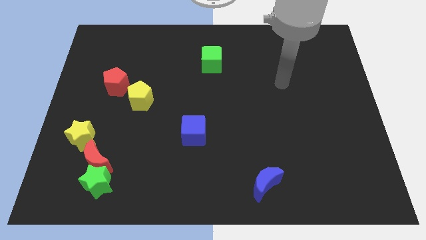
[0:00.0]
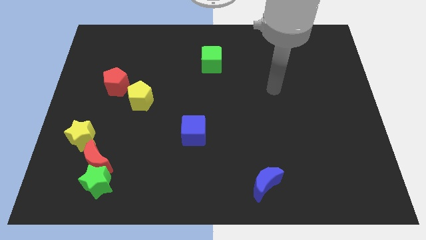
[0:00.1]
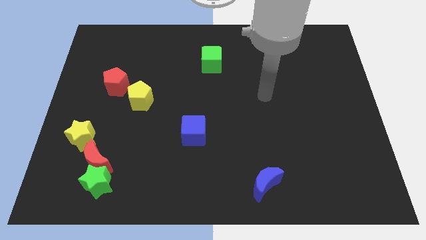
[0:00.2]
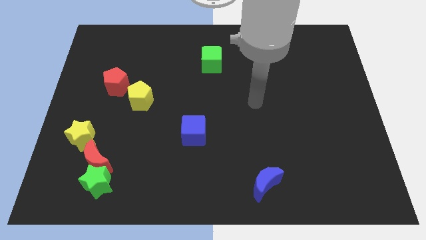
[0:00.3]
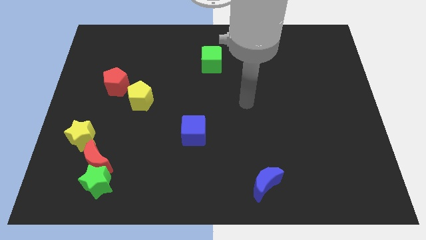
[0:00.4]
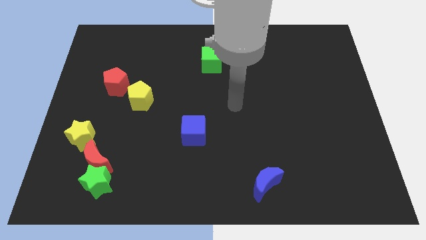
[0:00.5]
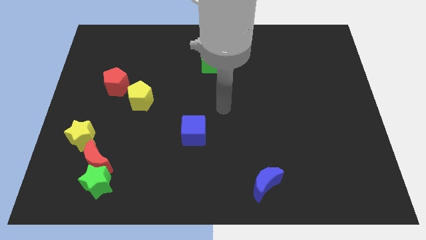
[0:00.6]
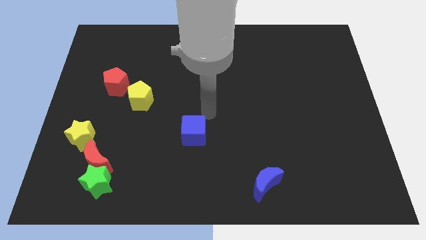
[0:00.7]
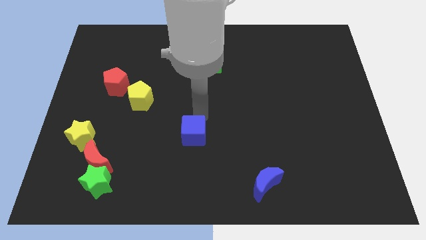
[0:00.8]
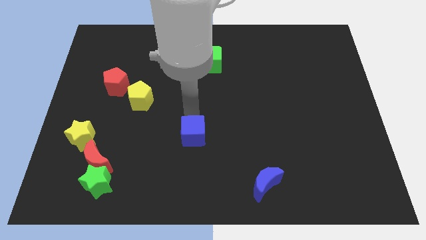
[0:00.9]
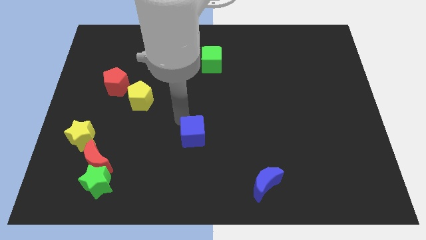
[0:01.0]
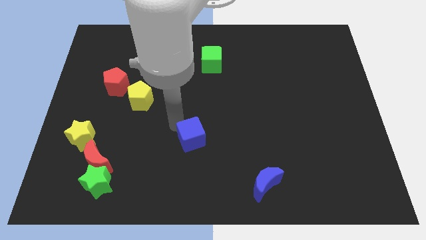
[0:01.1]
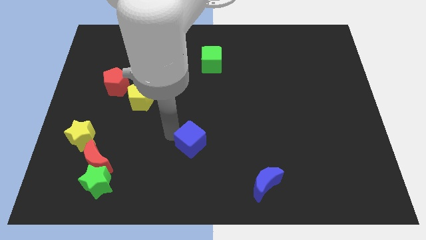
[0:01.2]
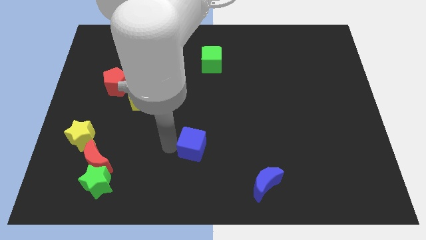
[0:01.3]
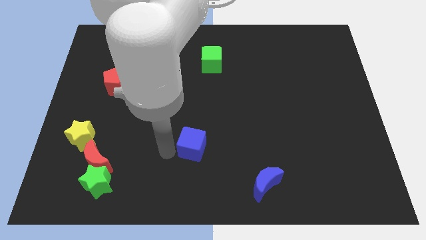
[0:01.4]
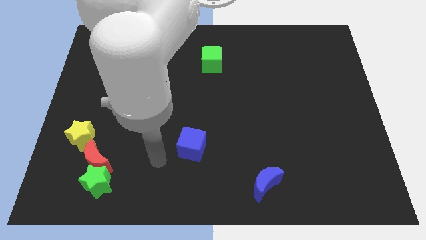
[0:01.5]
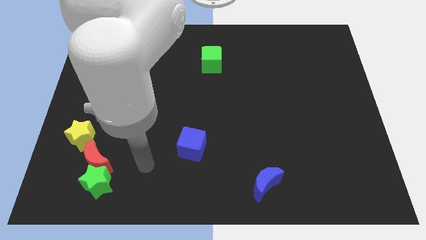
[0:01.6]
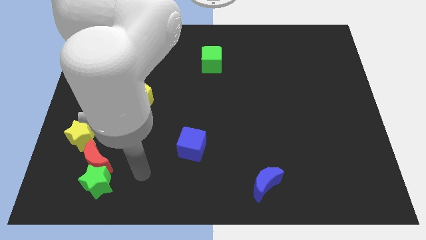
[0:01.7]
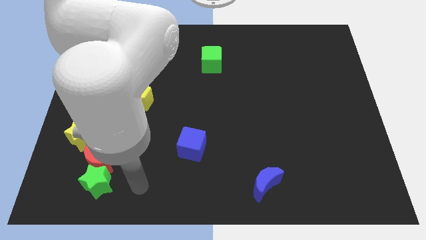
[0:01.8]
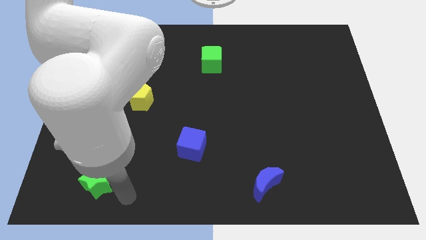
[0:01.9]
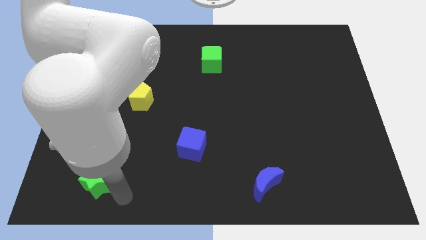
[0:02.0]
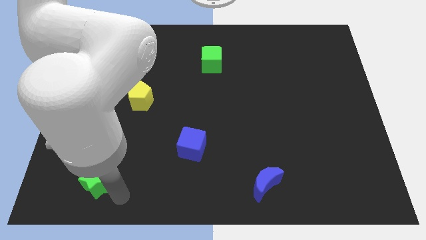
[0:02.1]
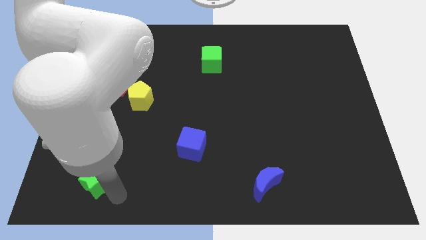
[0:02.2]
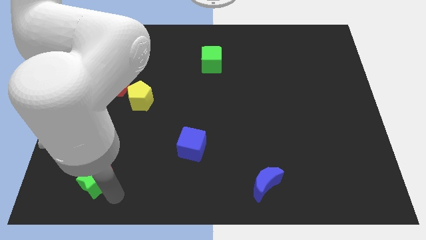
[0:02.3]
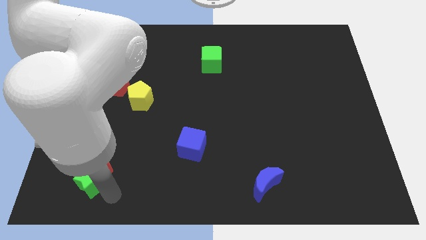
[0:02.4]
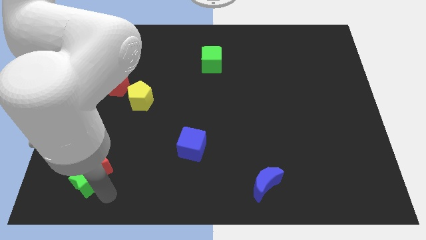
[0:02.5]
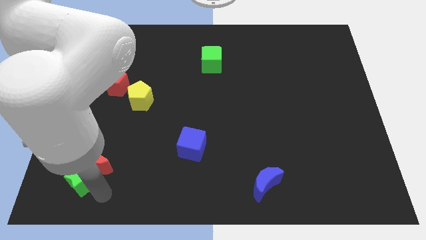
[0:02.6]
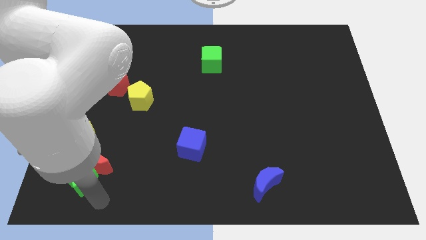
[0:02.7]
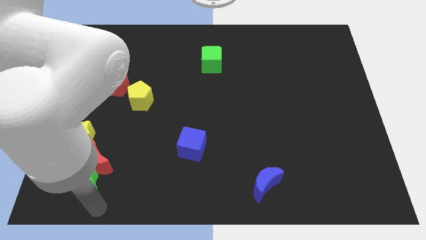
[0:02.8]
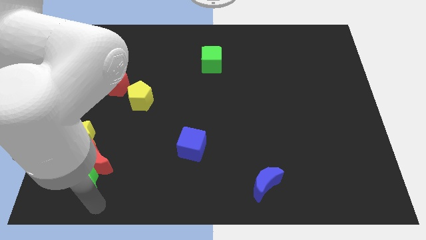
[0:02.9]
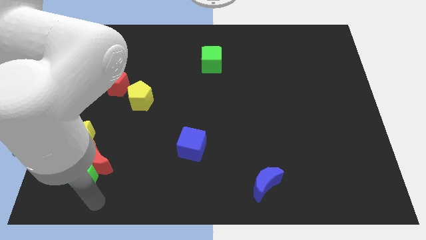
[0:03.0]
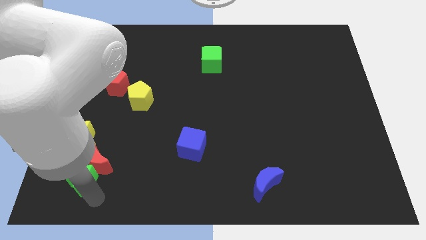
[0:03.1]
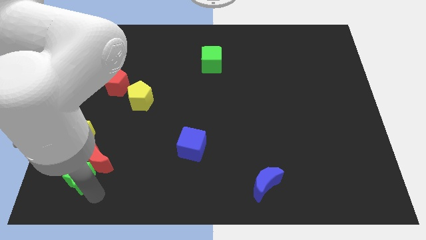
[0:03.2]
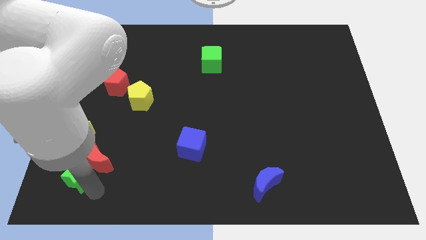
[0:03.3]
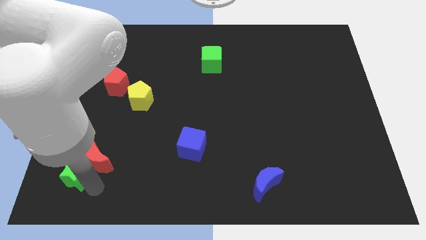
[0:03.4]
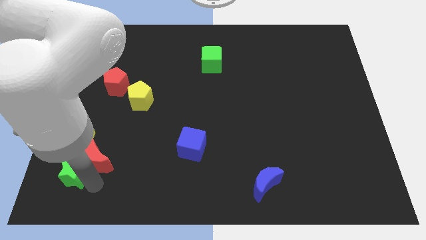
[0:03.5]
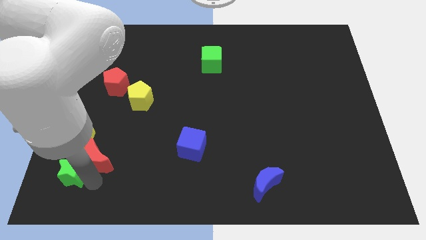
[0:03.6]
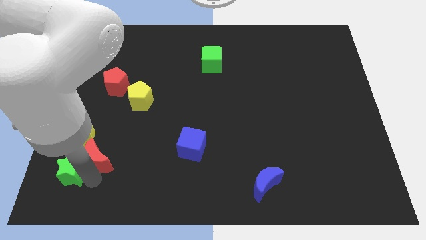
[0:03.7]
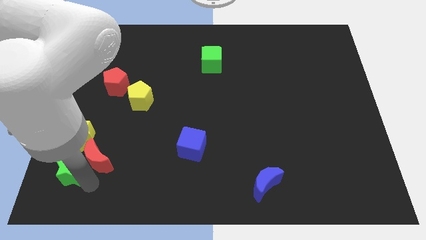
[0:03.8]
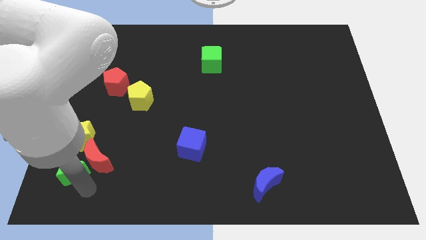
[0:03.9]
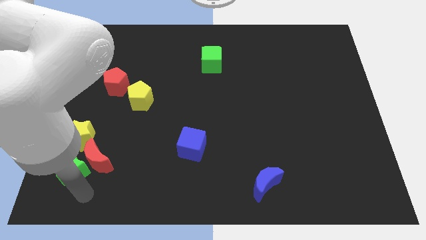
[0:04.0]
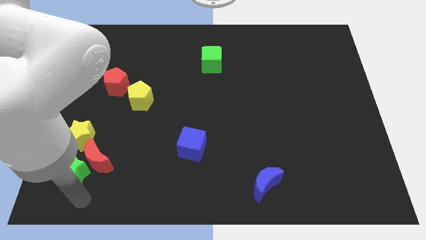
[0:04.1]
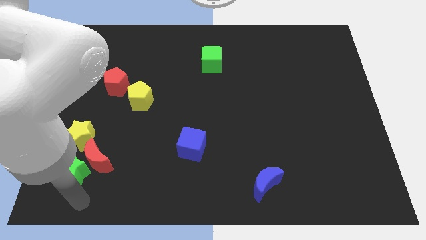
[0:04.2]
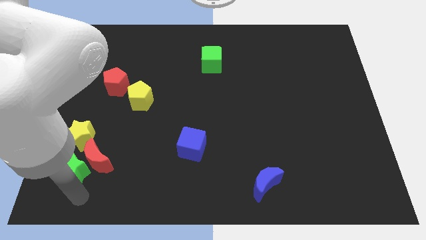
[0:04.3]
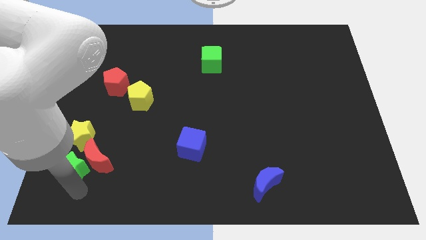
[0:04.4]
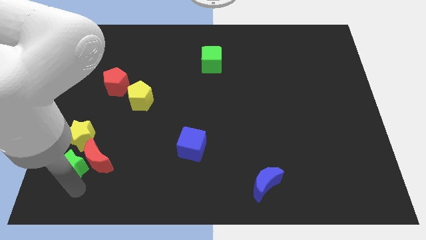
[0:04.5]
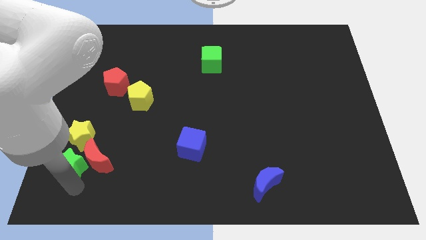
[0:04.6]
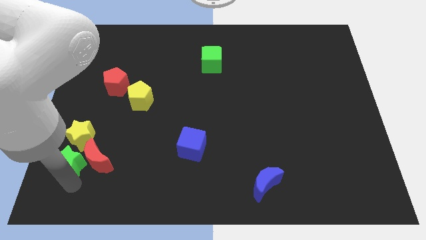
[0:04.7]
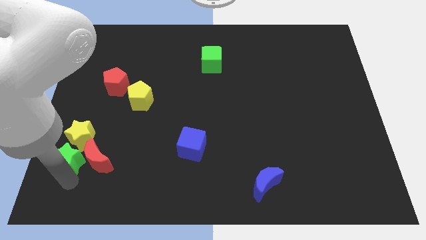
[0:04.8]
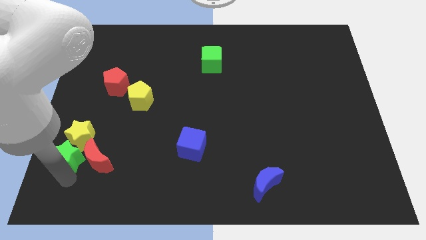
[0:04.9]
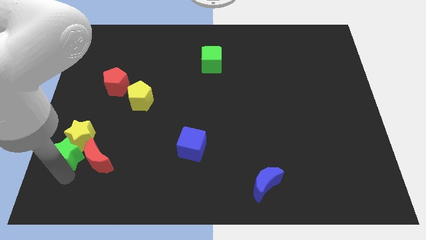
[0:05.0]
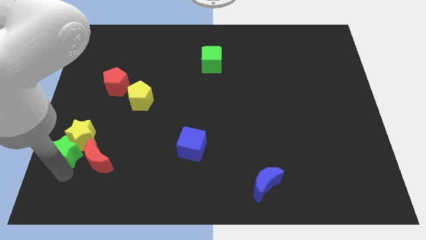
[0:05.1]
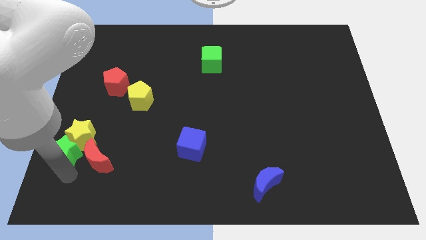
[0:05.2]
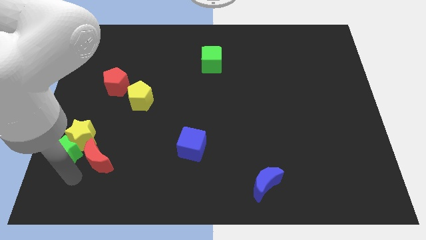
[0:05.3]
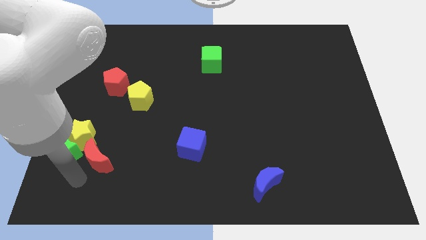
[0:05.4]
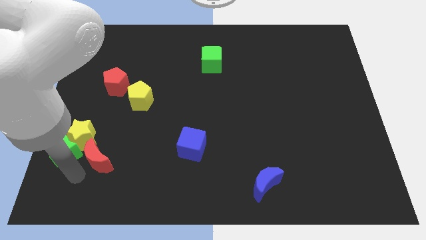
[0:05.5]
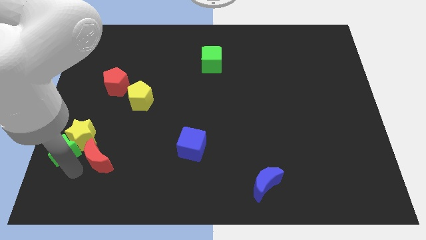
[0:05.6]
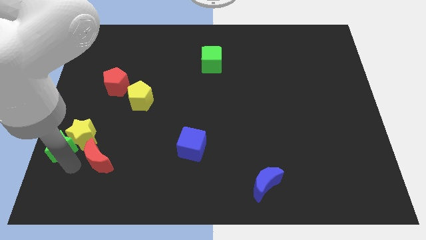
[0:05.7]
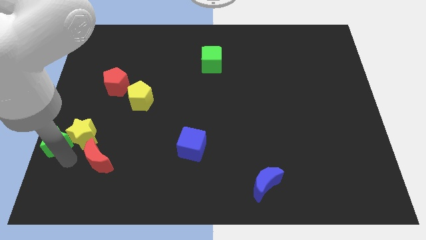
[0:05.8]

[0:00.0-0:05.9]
slide the green star to the center left

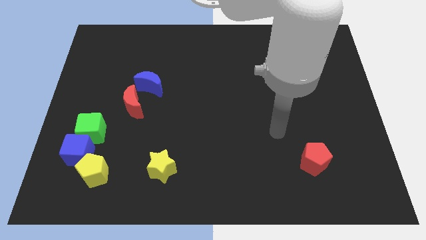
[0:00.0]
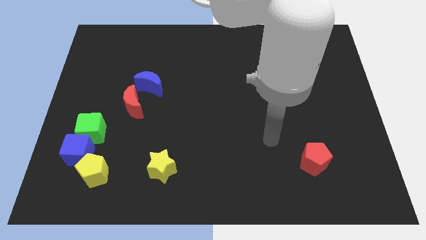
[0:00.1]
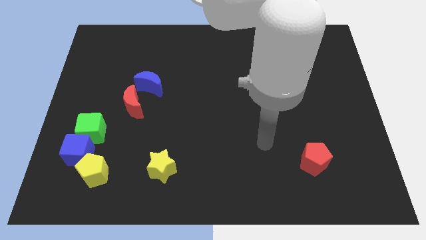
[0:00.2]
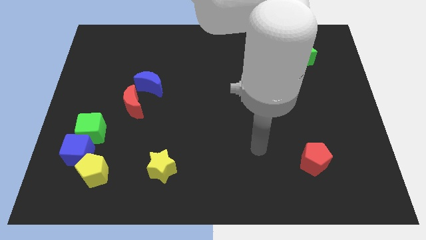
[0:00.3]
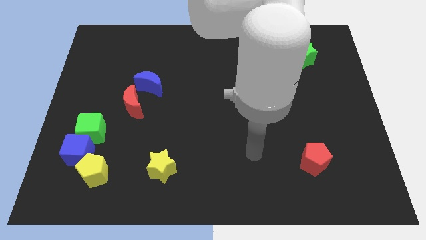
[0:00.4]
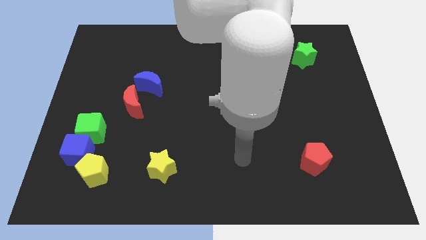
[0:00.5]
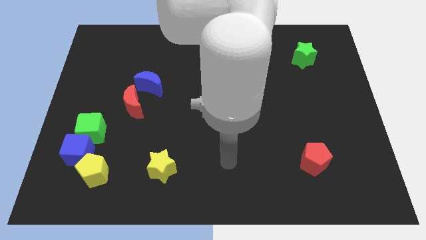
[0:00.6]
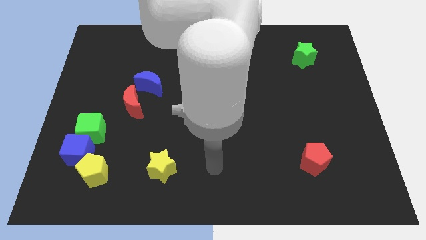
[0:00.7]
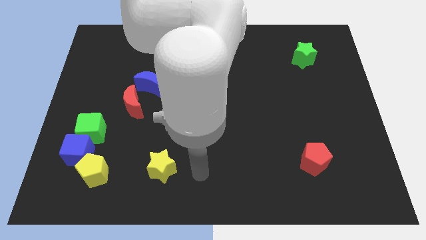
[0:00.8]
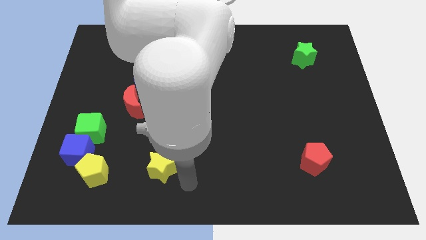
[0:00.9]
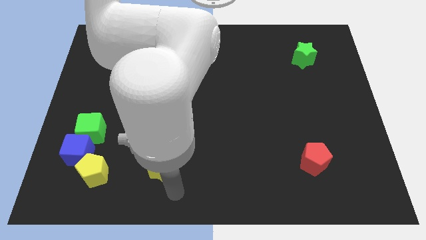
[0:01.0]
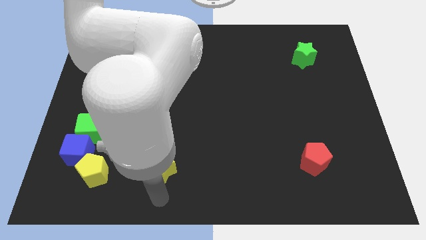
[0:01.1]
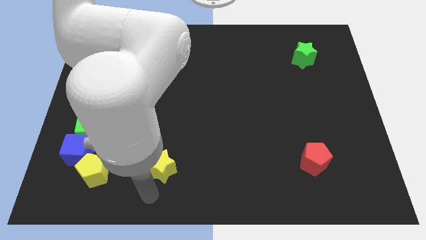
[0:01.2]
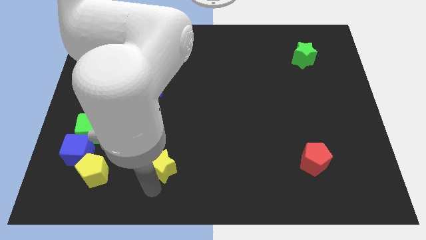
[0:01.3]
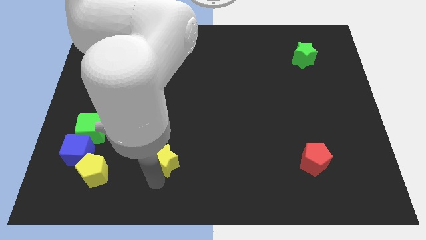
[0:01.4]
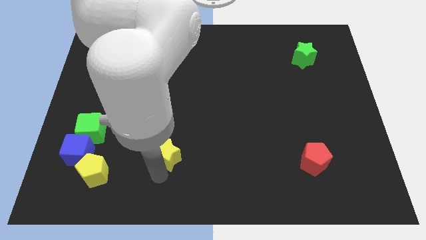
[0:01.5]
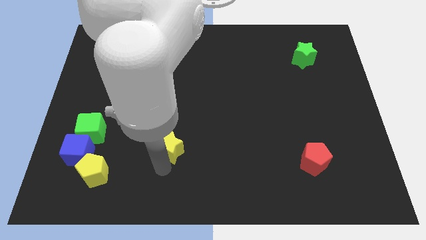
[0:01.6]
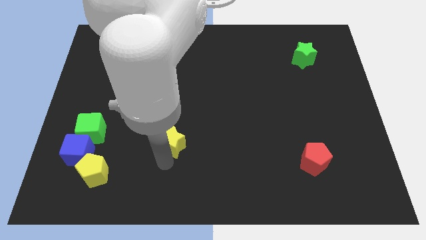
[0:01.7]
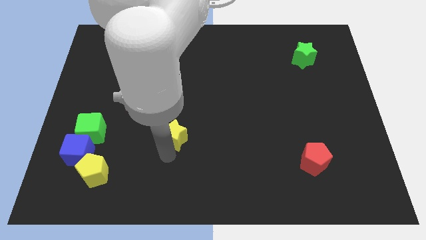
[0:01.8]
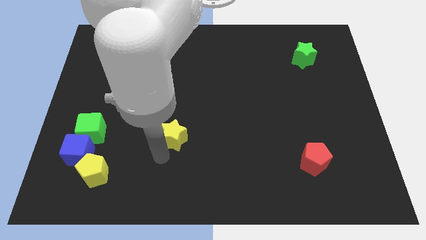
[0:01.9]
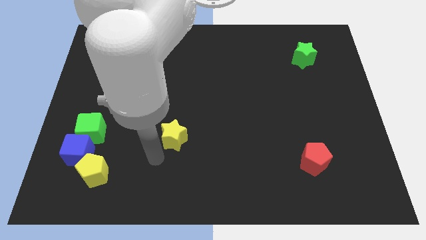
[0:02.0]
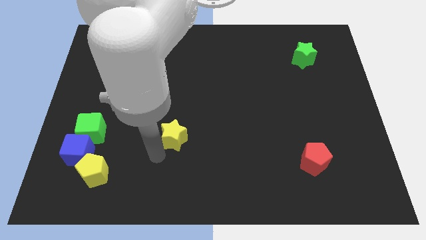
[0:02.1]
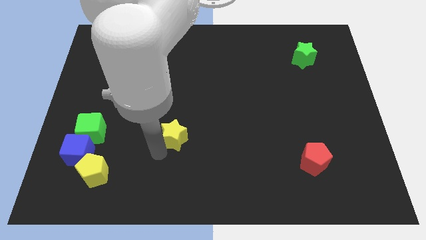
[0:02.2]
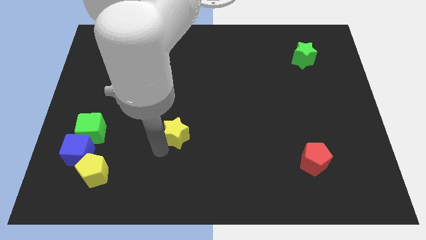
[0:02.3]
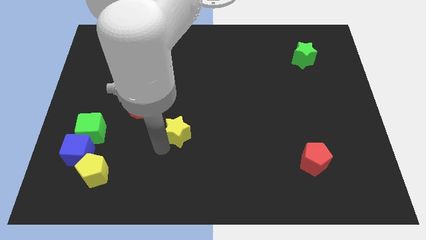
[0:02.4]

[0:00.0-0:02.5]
move the yellow star to the center
